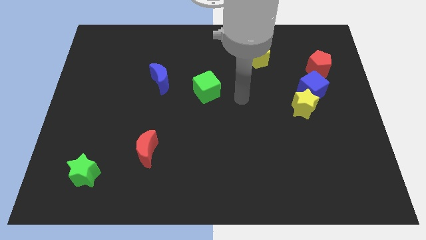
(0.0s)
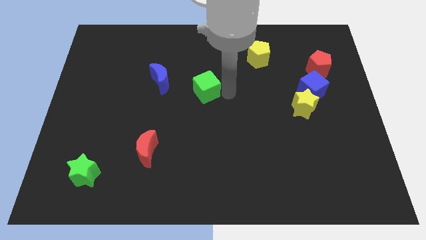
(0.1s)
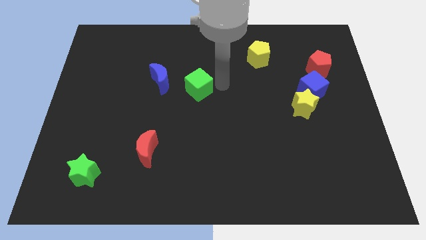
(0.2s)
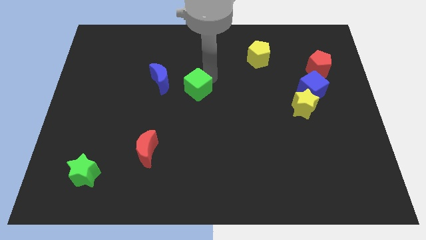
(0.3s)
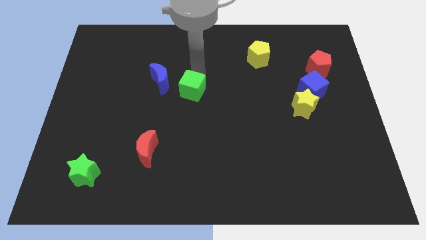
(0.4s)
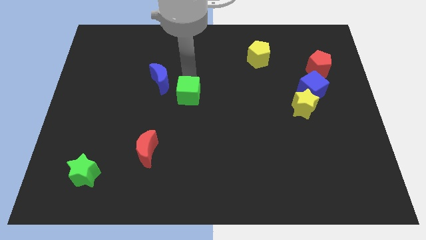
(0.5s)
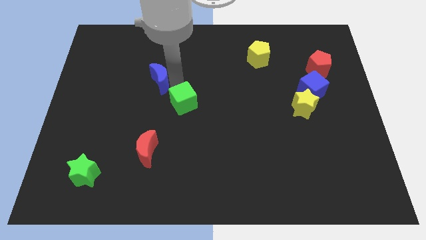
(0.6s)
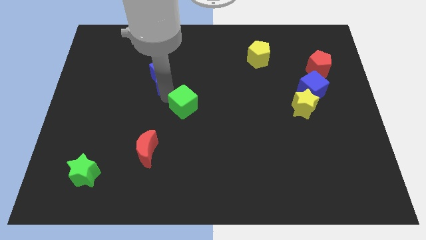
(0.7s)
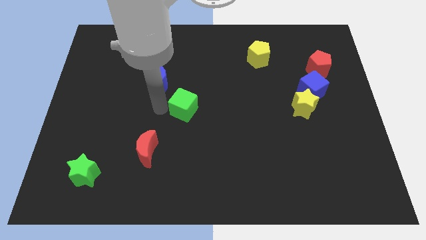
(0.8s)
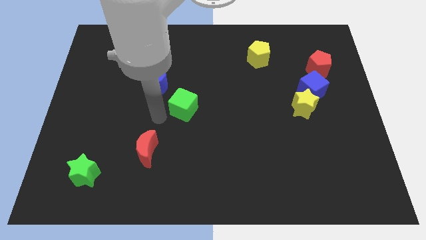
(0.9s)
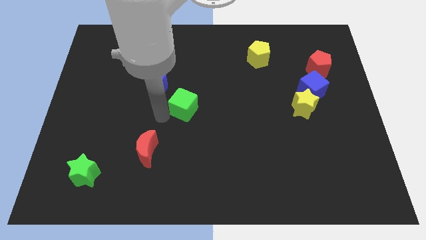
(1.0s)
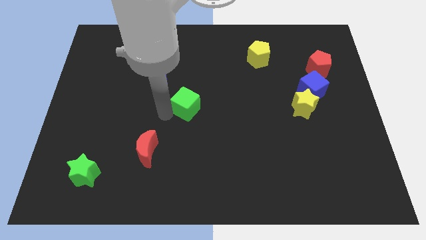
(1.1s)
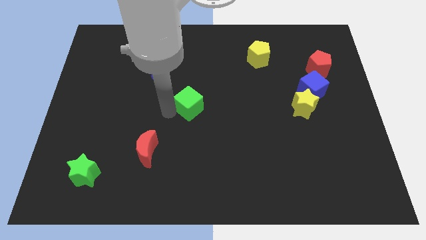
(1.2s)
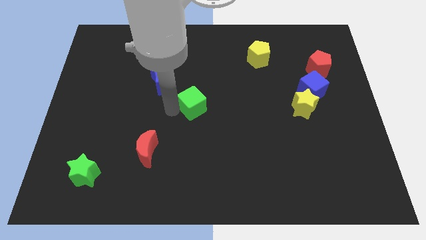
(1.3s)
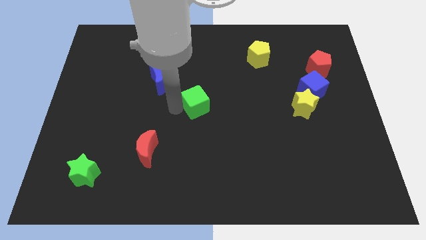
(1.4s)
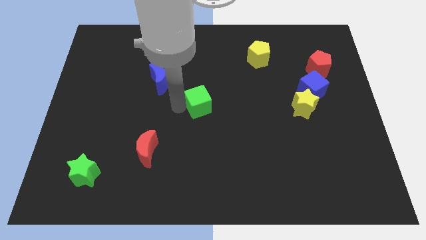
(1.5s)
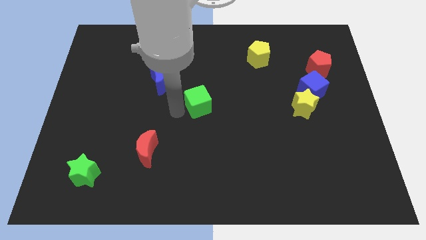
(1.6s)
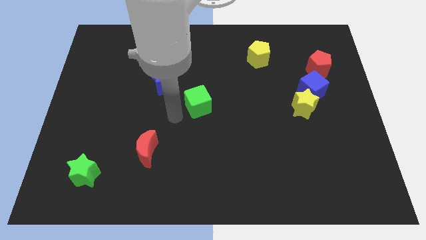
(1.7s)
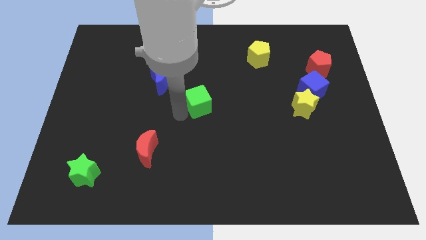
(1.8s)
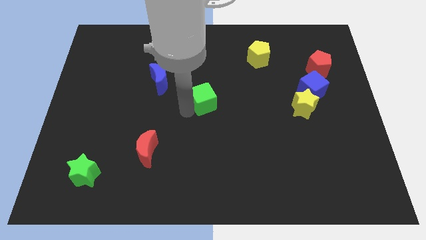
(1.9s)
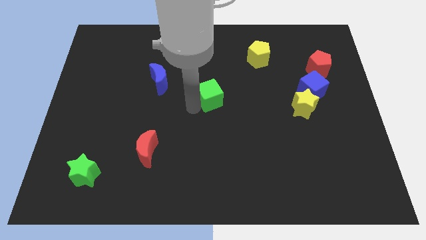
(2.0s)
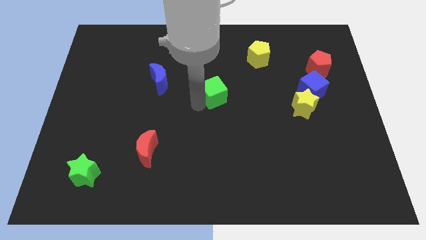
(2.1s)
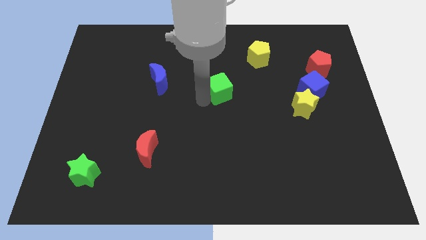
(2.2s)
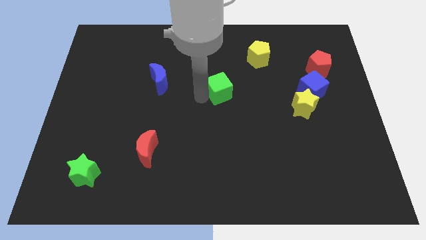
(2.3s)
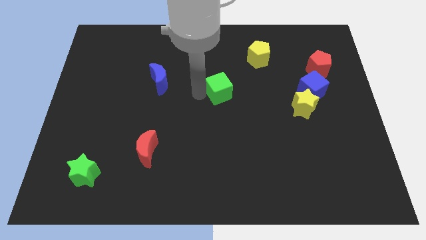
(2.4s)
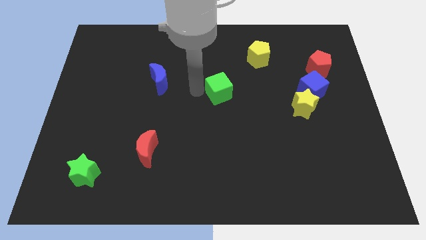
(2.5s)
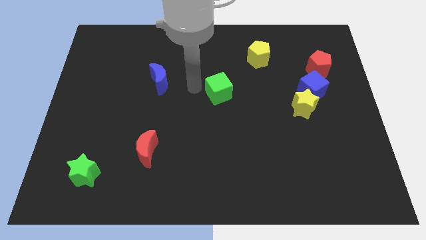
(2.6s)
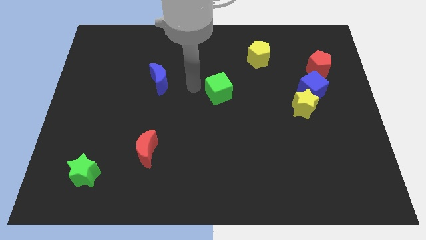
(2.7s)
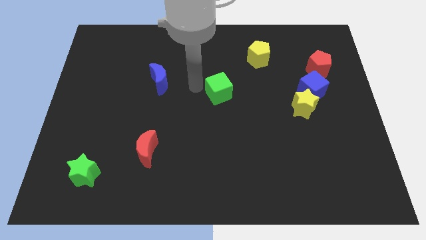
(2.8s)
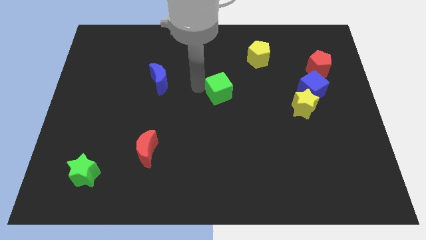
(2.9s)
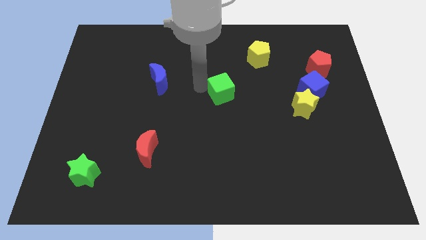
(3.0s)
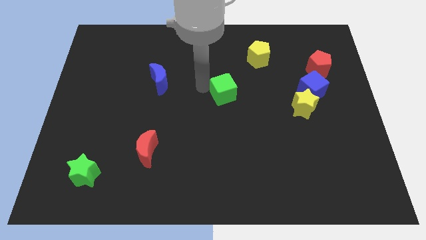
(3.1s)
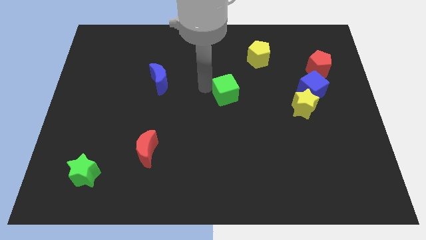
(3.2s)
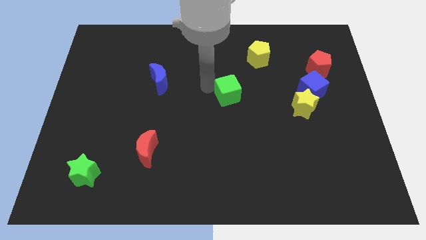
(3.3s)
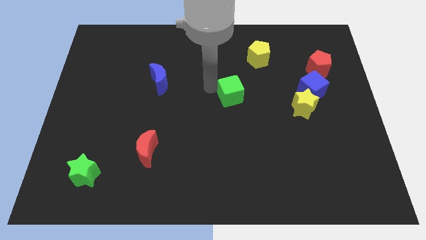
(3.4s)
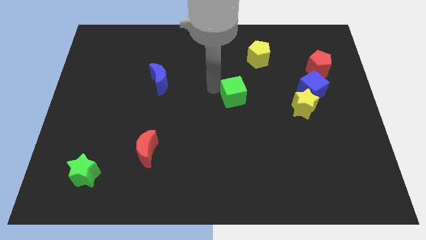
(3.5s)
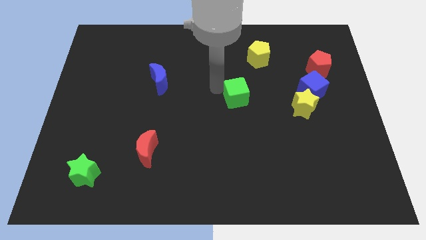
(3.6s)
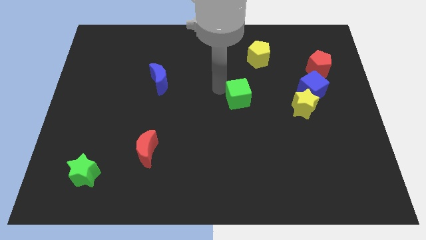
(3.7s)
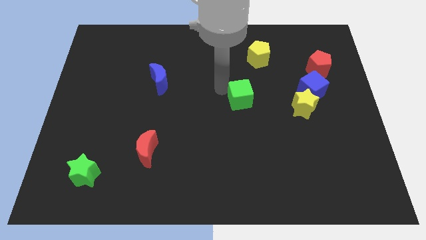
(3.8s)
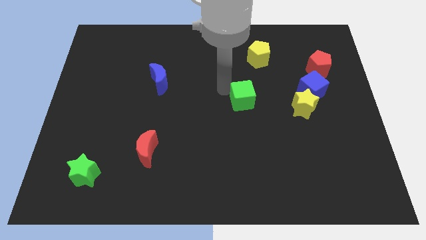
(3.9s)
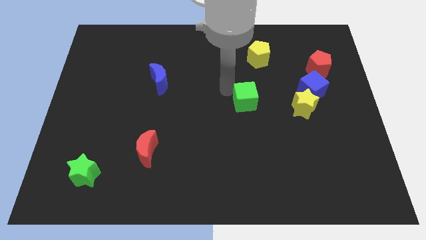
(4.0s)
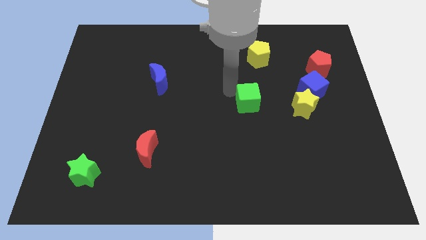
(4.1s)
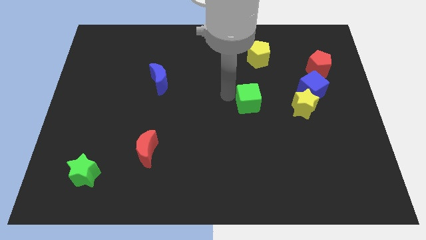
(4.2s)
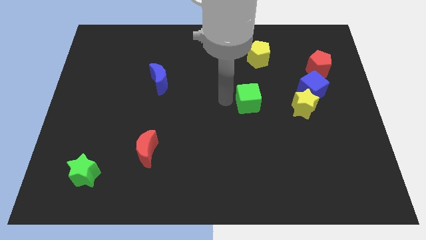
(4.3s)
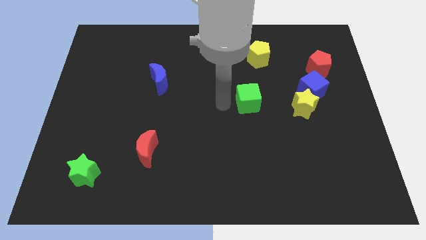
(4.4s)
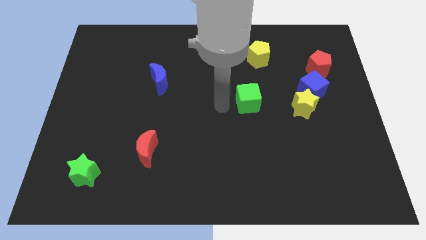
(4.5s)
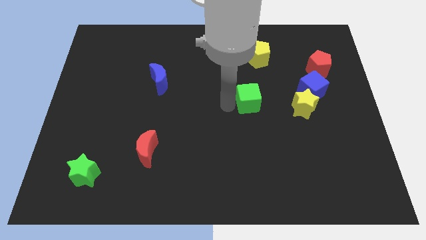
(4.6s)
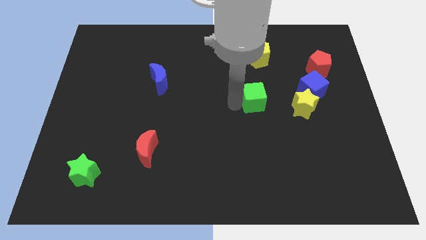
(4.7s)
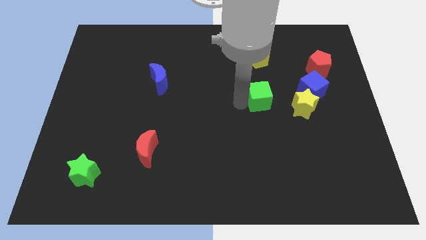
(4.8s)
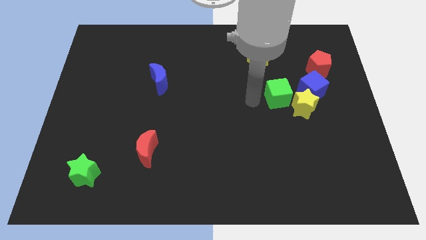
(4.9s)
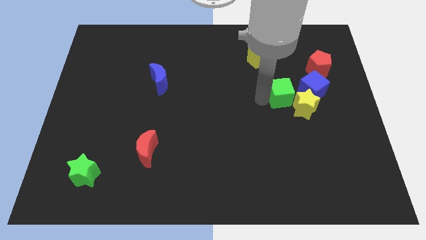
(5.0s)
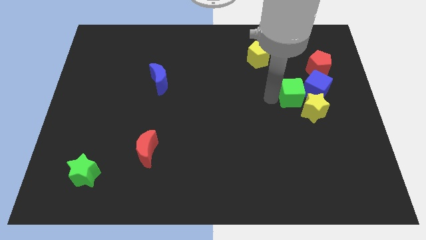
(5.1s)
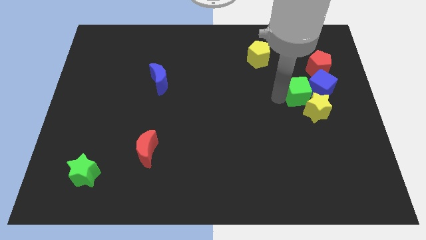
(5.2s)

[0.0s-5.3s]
put the green cube close to the blue cube

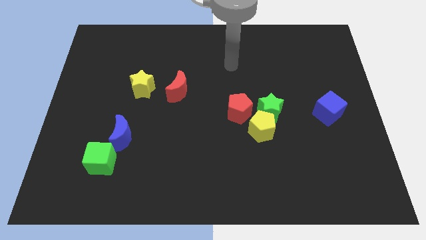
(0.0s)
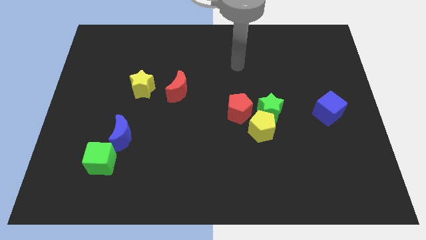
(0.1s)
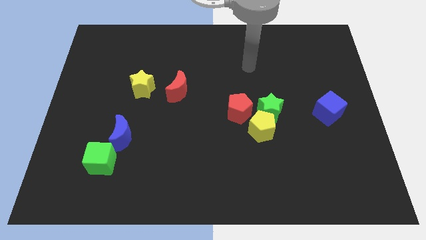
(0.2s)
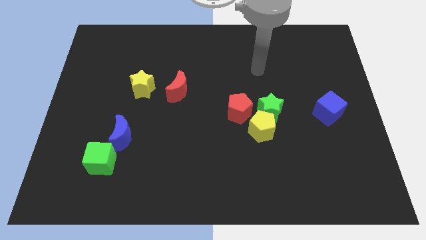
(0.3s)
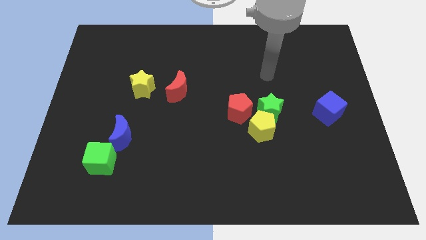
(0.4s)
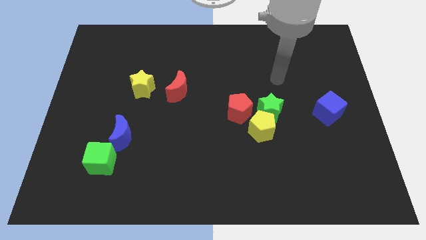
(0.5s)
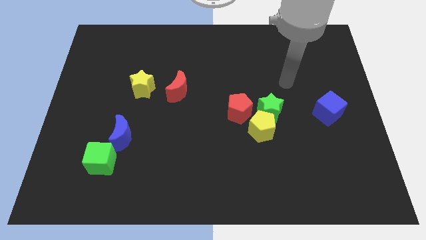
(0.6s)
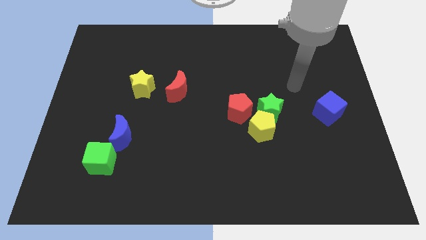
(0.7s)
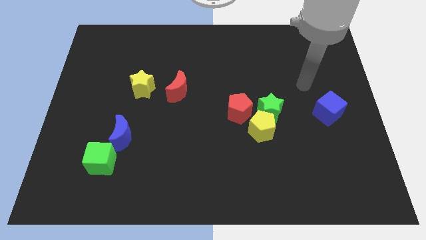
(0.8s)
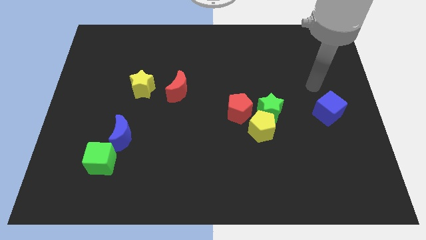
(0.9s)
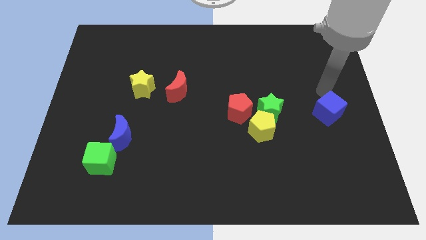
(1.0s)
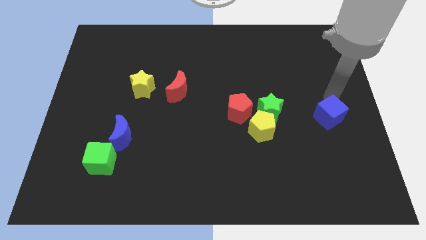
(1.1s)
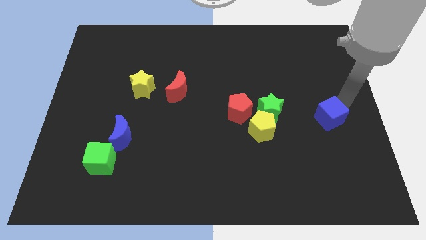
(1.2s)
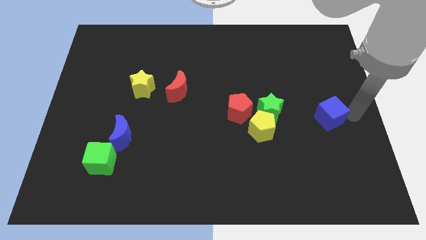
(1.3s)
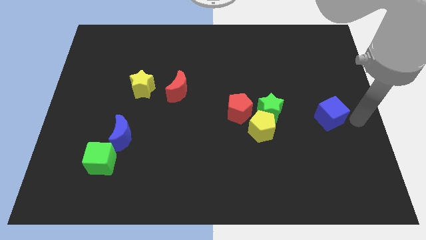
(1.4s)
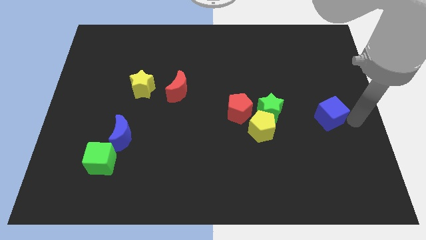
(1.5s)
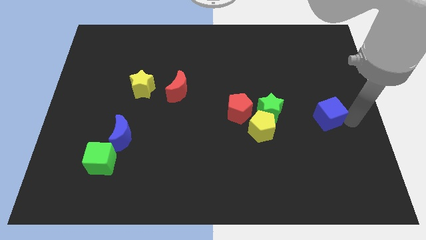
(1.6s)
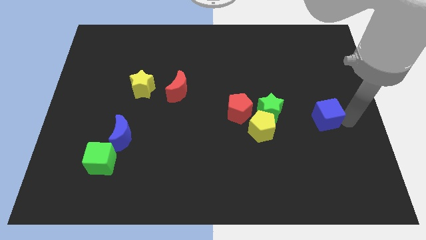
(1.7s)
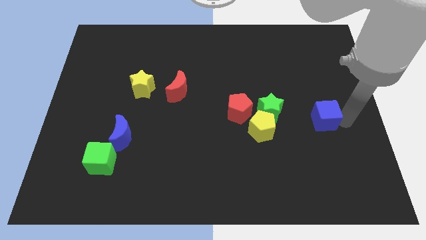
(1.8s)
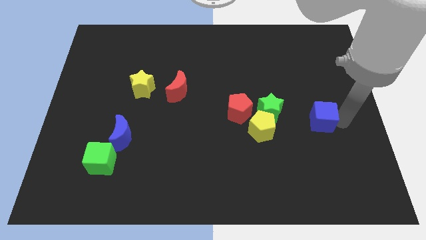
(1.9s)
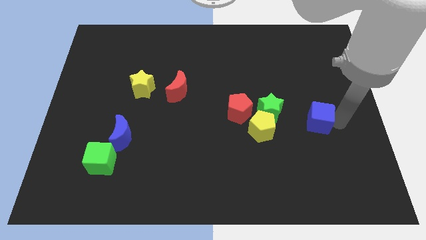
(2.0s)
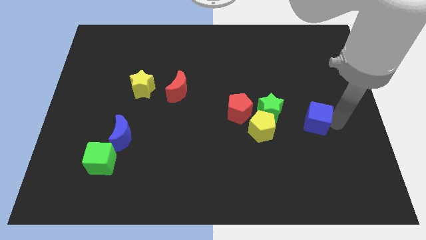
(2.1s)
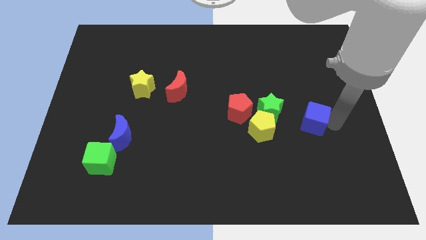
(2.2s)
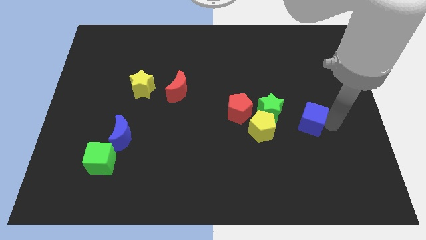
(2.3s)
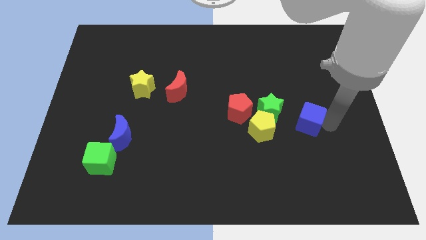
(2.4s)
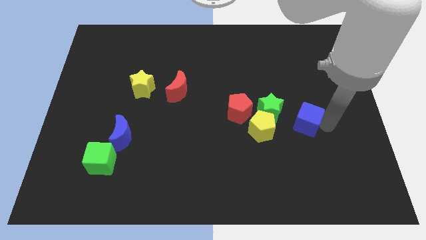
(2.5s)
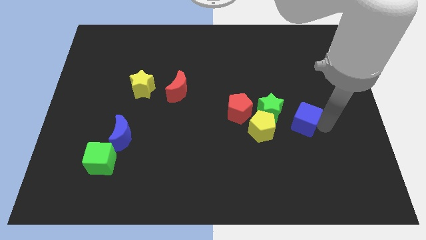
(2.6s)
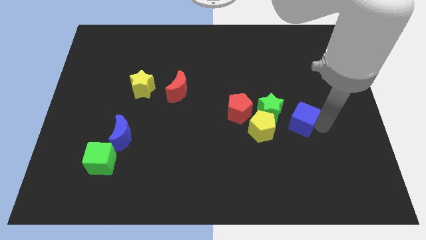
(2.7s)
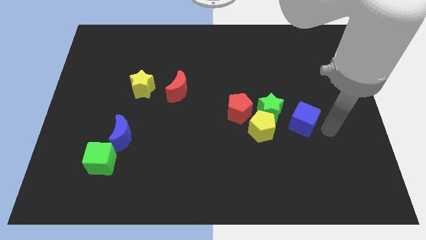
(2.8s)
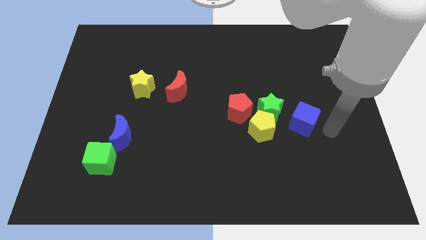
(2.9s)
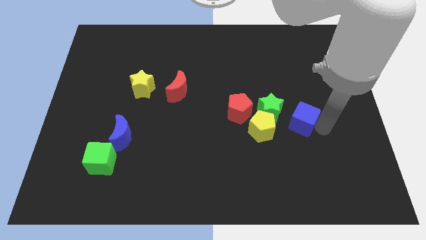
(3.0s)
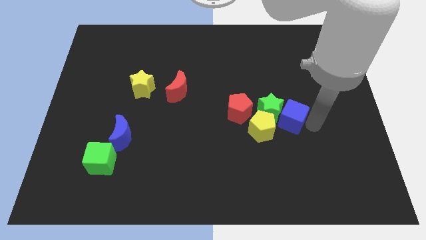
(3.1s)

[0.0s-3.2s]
move the blue cube next to the green star
